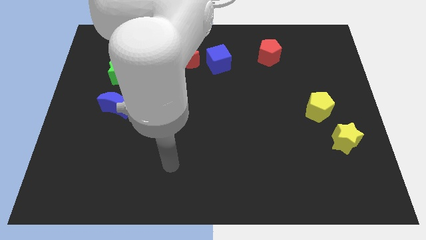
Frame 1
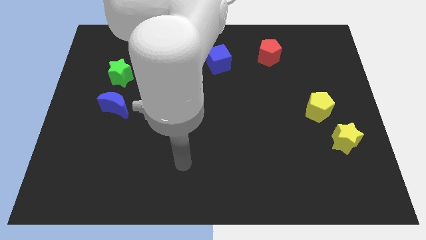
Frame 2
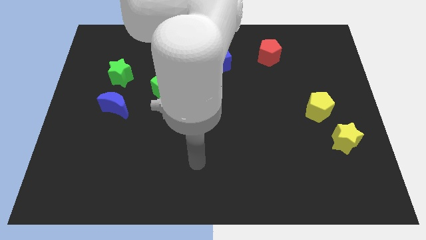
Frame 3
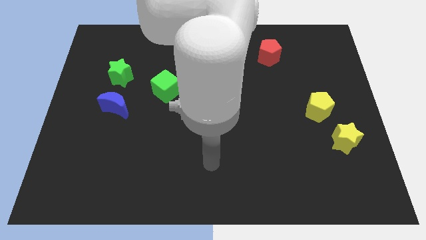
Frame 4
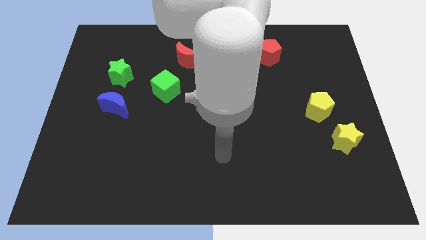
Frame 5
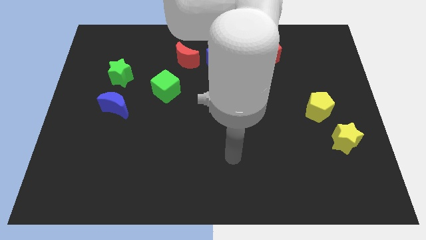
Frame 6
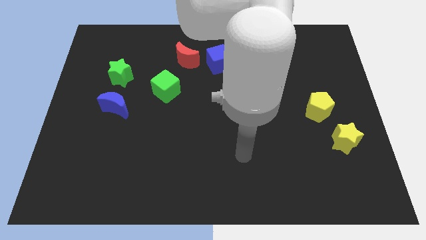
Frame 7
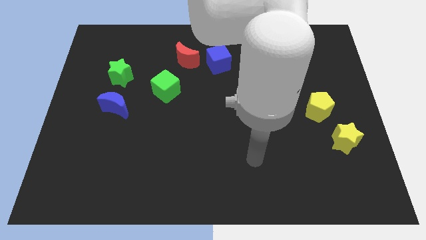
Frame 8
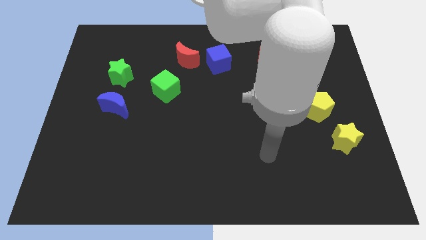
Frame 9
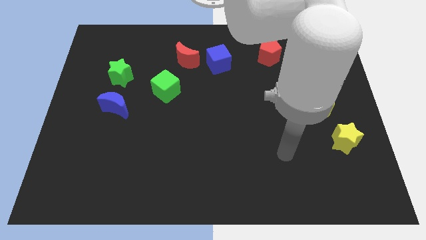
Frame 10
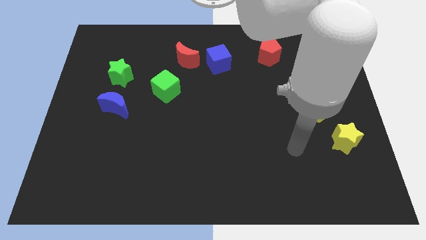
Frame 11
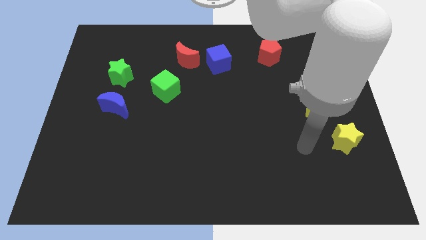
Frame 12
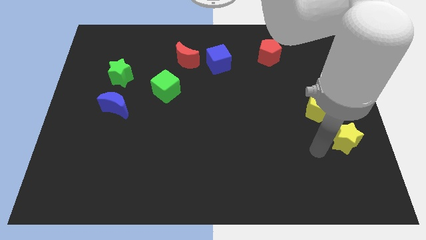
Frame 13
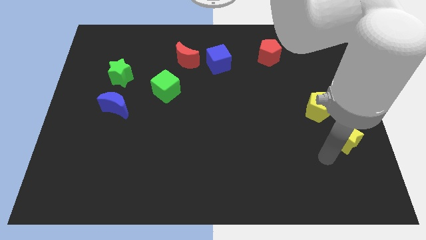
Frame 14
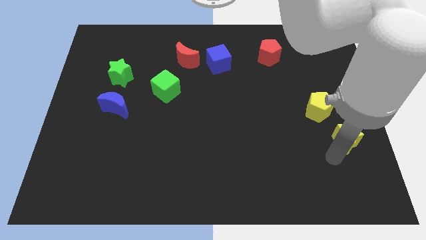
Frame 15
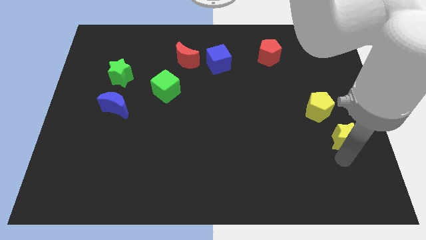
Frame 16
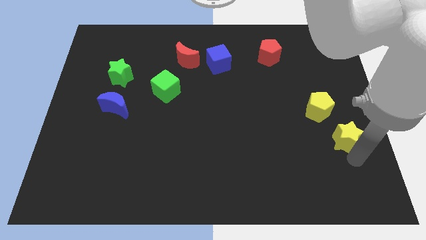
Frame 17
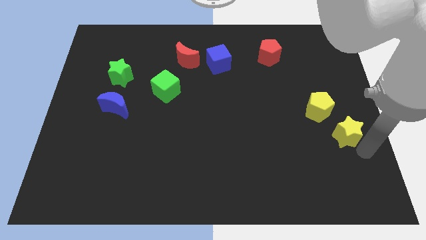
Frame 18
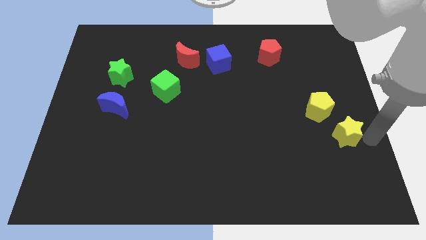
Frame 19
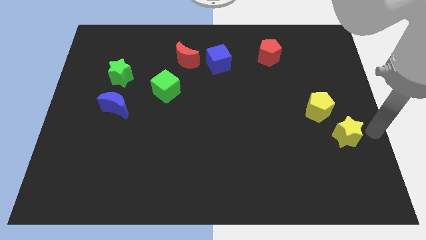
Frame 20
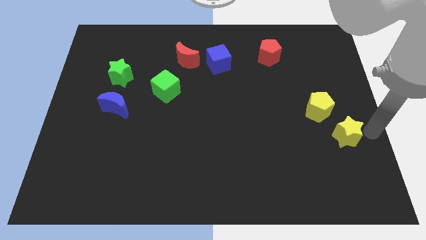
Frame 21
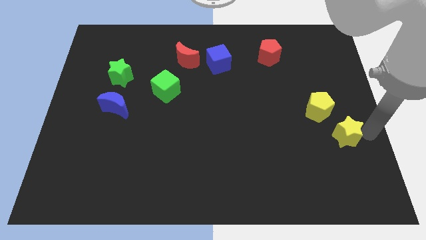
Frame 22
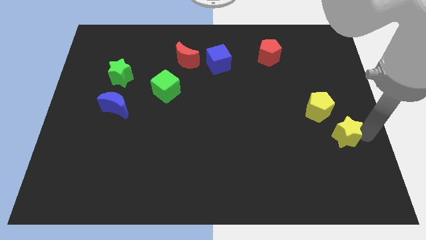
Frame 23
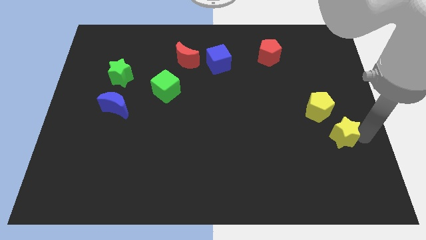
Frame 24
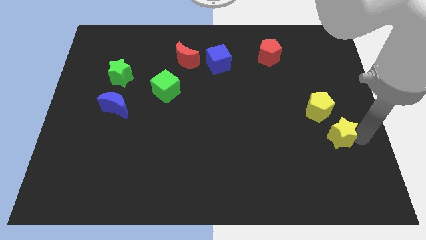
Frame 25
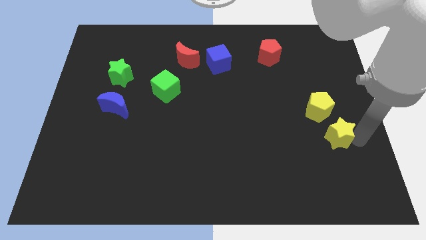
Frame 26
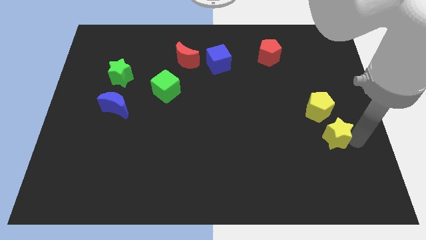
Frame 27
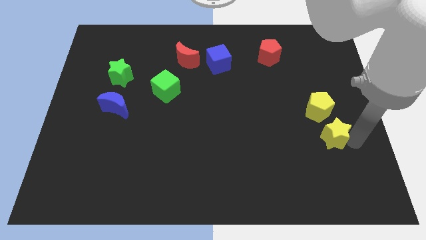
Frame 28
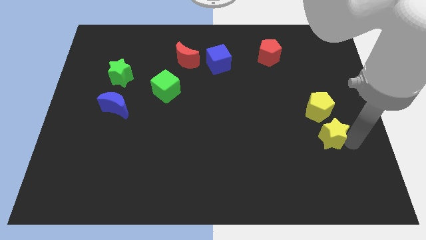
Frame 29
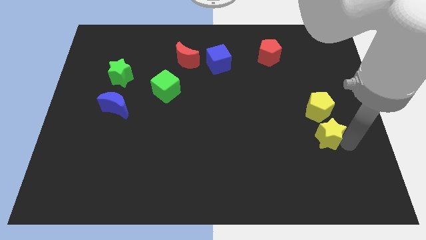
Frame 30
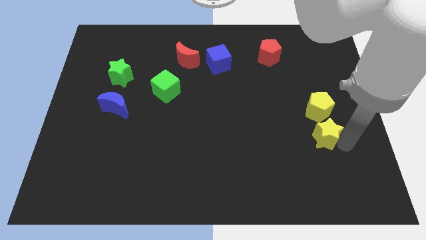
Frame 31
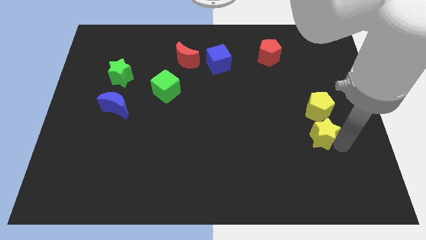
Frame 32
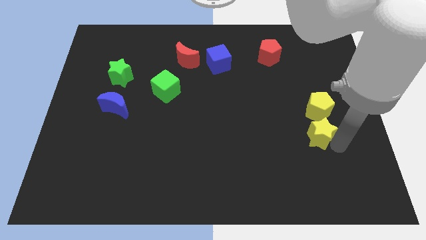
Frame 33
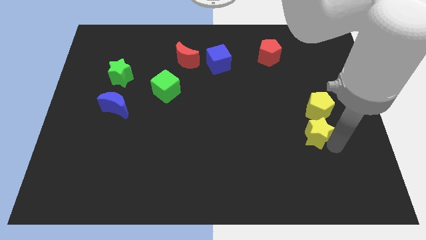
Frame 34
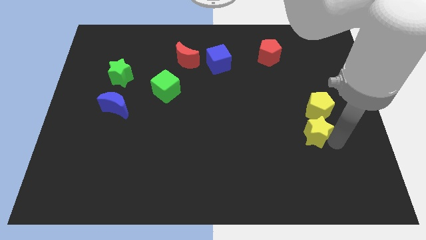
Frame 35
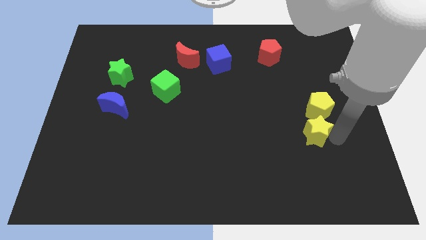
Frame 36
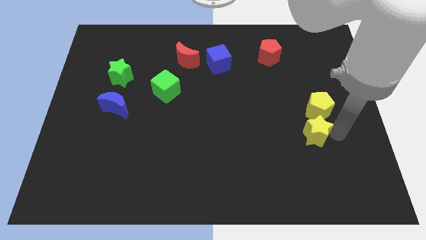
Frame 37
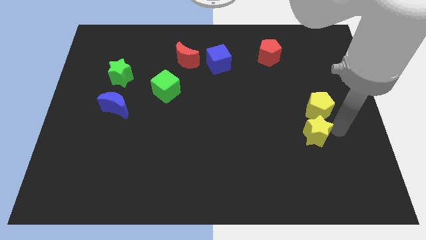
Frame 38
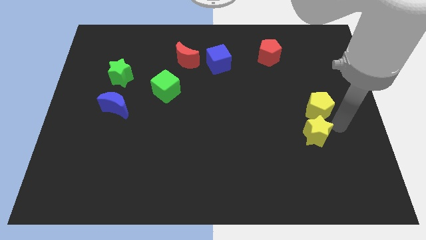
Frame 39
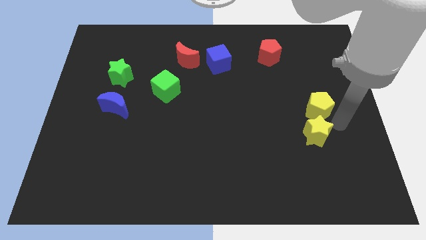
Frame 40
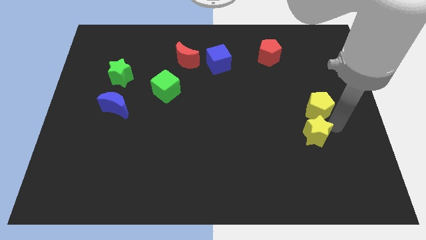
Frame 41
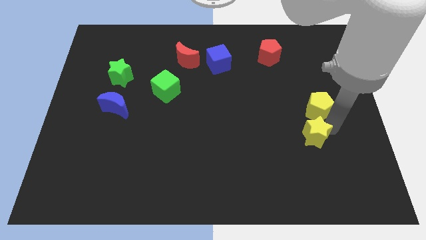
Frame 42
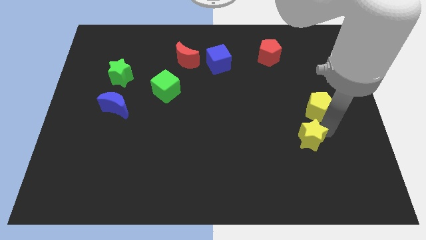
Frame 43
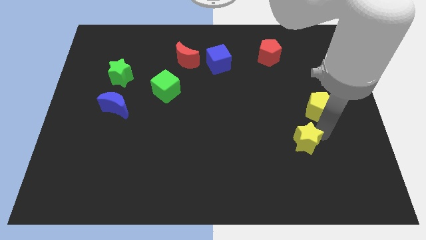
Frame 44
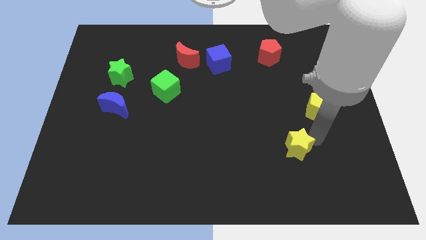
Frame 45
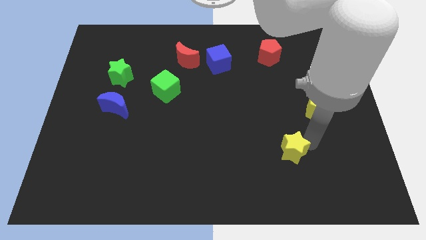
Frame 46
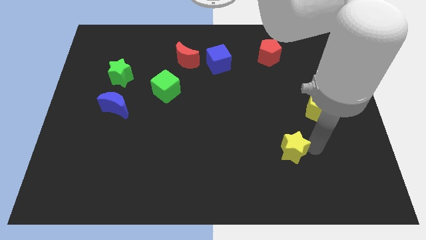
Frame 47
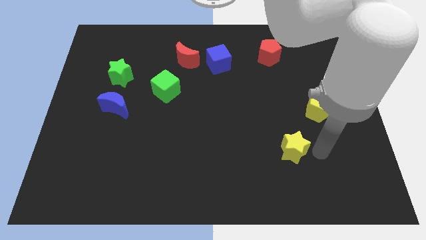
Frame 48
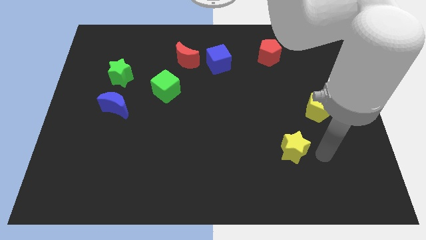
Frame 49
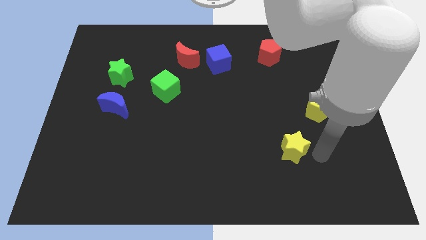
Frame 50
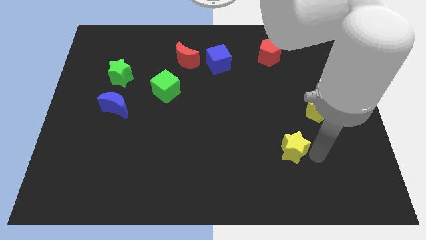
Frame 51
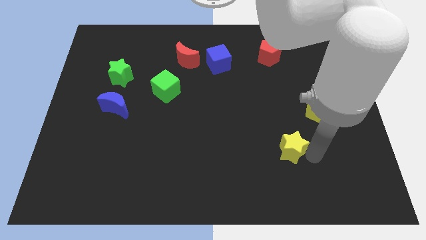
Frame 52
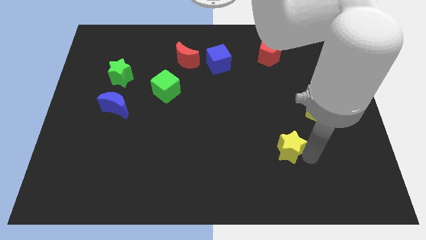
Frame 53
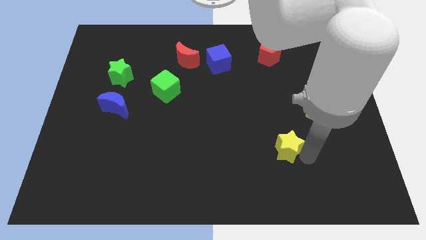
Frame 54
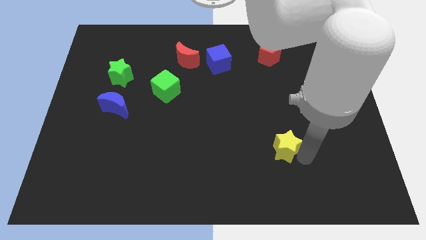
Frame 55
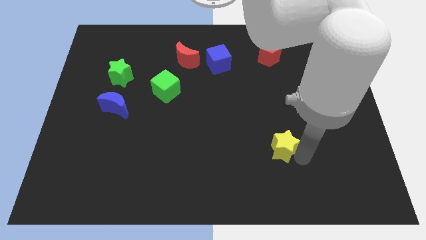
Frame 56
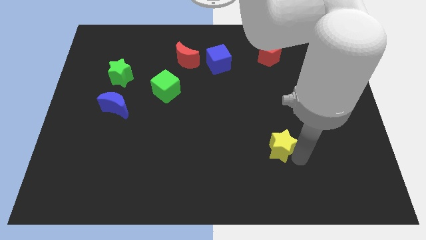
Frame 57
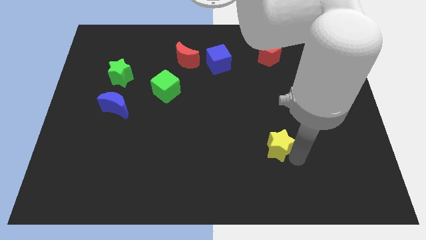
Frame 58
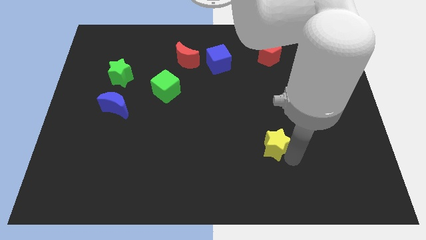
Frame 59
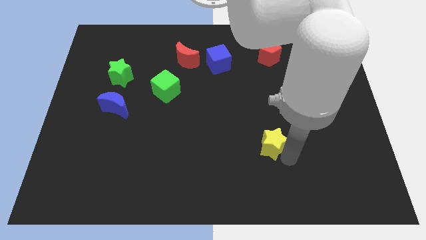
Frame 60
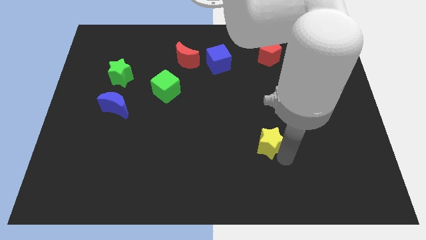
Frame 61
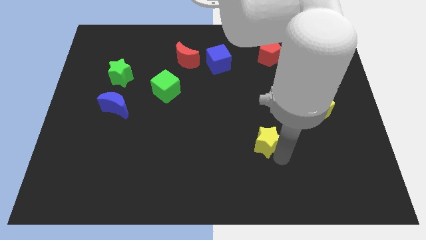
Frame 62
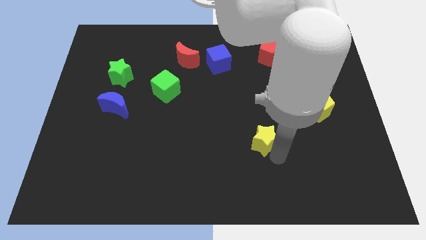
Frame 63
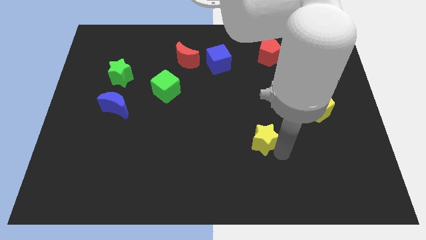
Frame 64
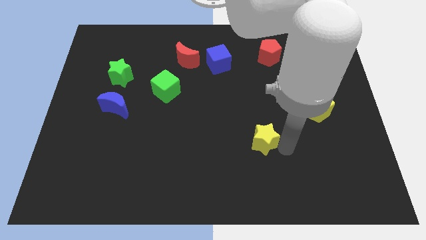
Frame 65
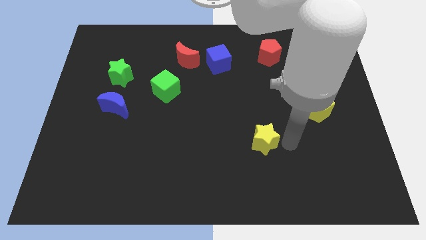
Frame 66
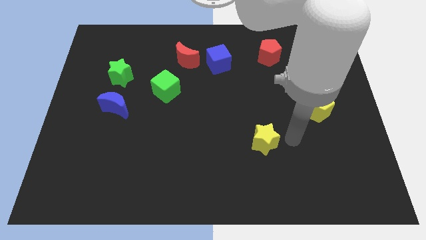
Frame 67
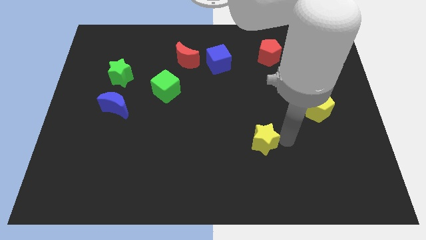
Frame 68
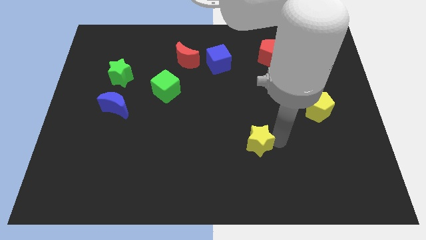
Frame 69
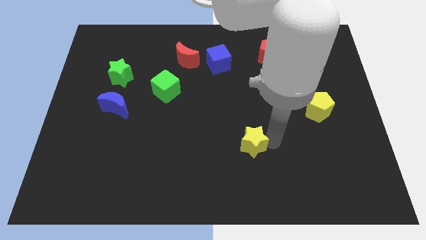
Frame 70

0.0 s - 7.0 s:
push the yellow star to the left

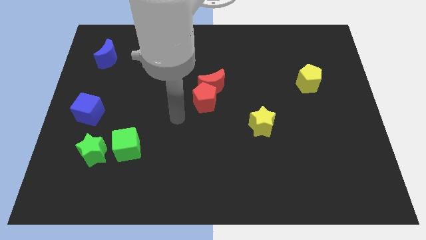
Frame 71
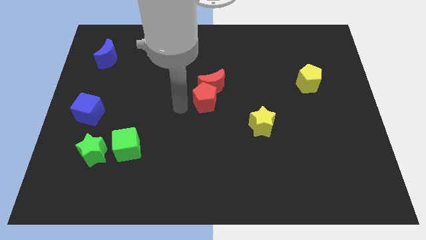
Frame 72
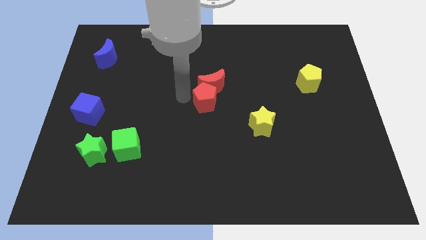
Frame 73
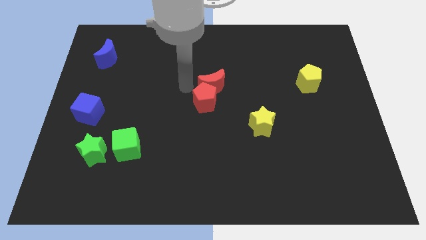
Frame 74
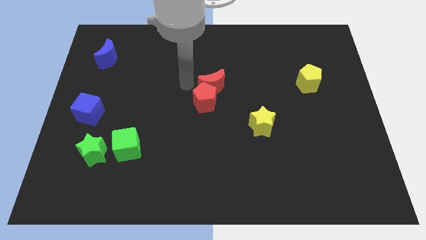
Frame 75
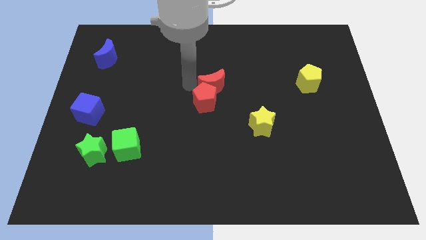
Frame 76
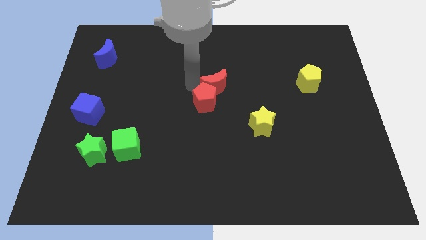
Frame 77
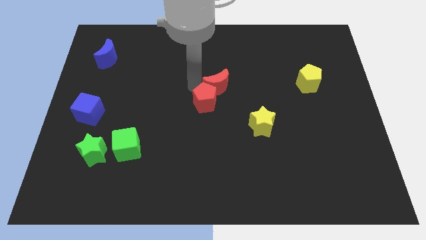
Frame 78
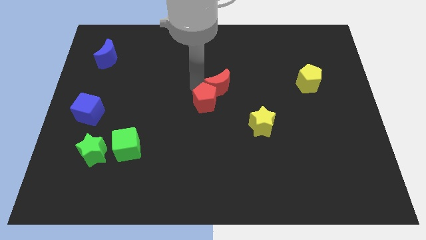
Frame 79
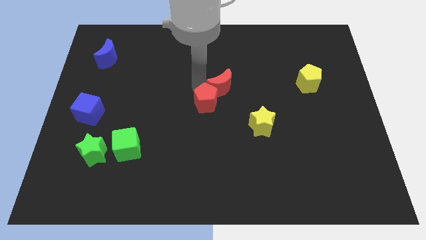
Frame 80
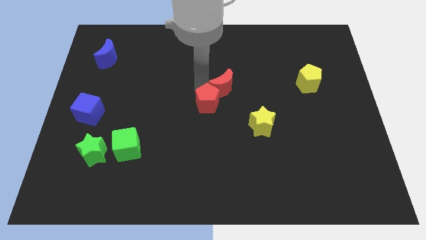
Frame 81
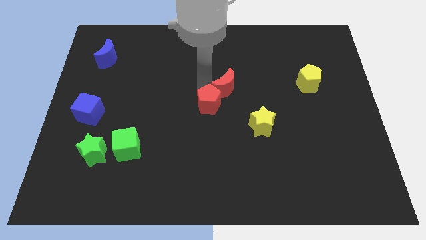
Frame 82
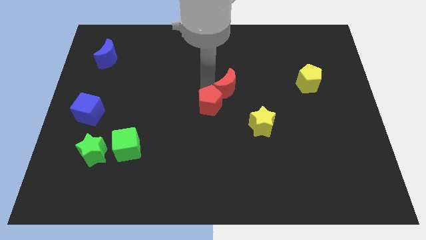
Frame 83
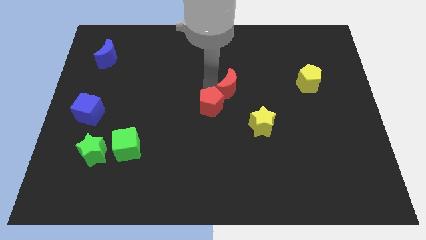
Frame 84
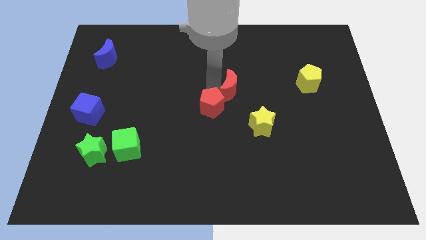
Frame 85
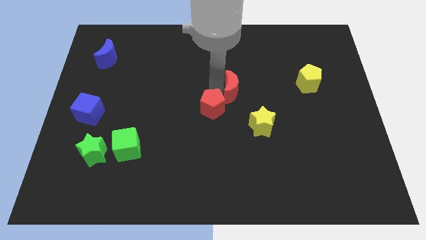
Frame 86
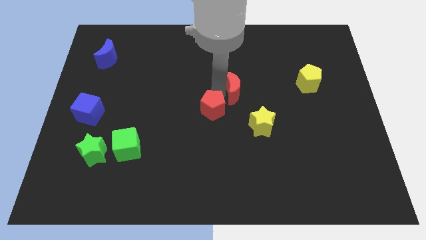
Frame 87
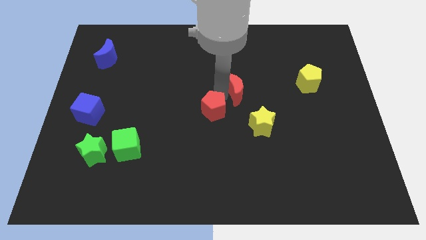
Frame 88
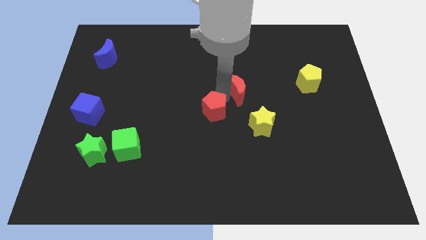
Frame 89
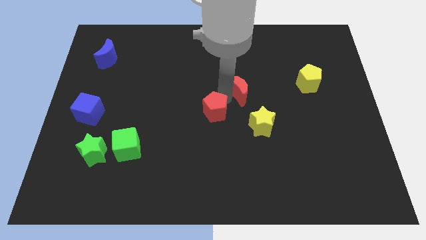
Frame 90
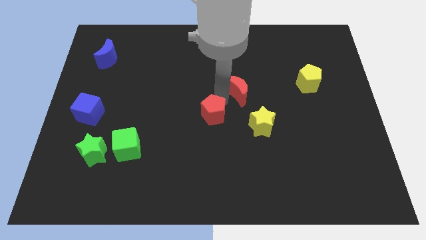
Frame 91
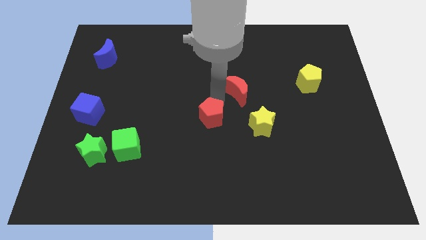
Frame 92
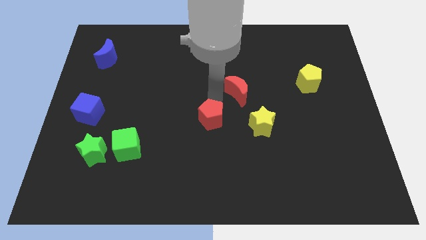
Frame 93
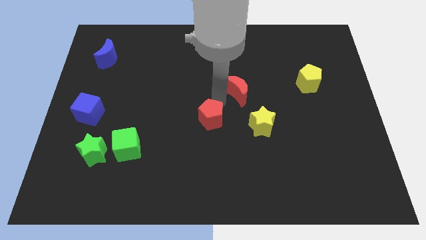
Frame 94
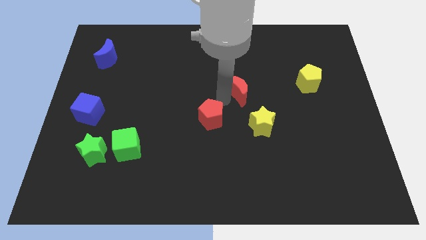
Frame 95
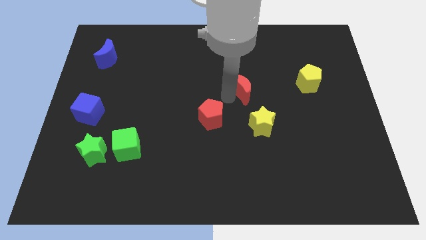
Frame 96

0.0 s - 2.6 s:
push the red moon to the right a little
